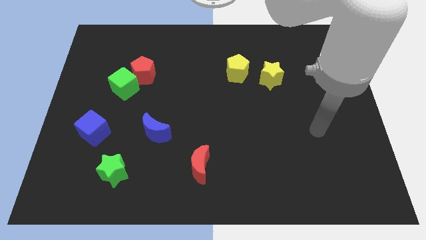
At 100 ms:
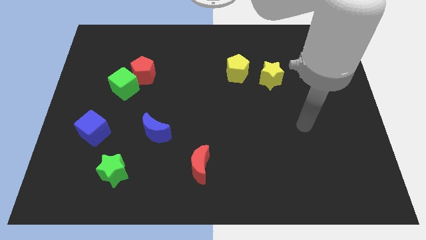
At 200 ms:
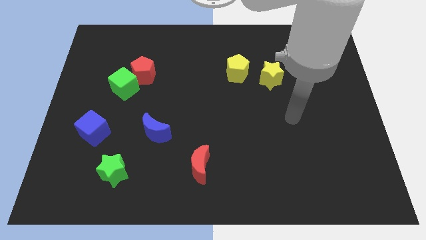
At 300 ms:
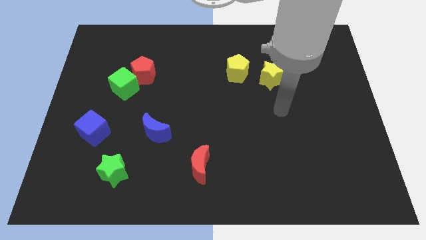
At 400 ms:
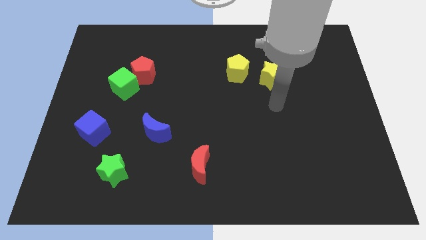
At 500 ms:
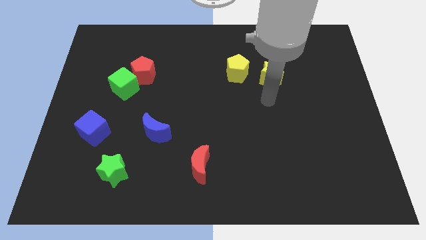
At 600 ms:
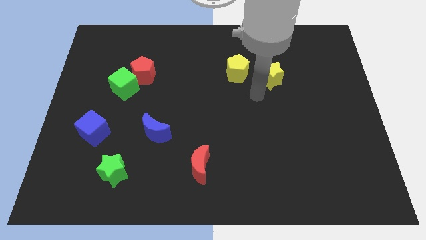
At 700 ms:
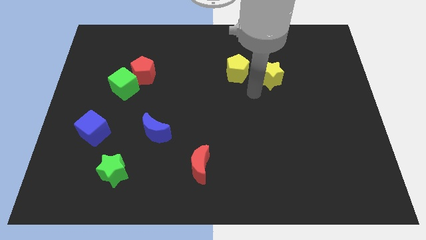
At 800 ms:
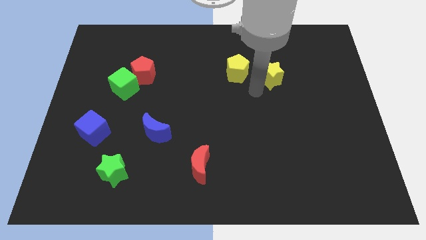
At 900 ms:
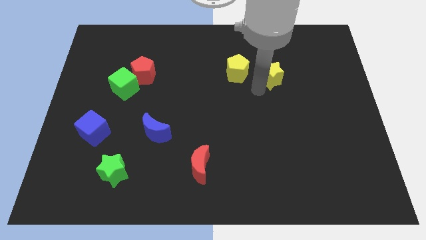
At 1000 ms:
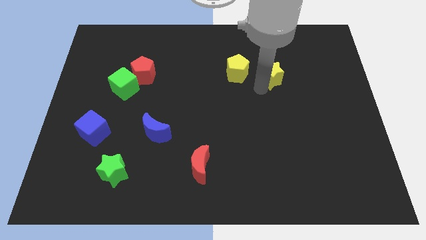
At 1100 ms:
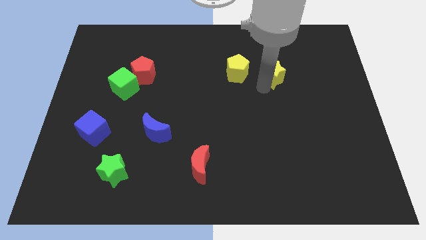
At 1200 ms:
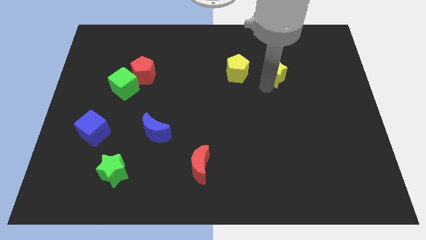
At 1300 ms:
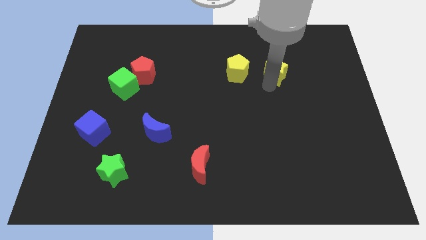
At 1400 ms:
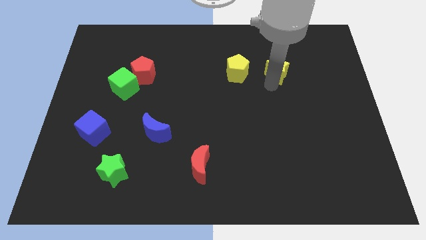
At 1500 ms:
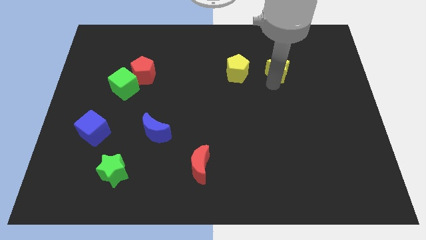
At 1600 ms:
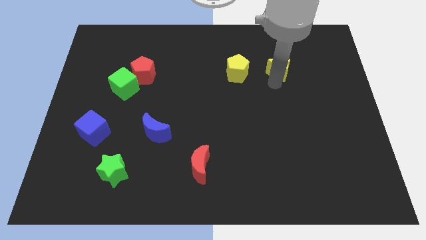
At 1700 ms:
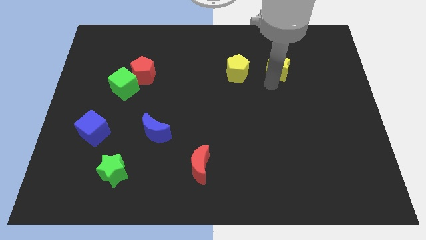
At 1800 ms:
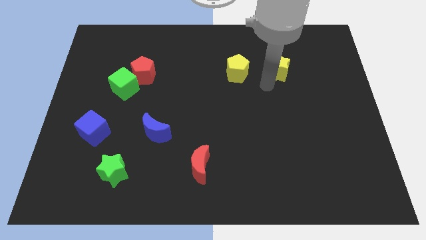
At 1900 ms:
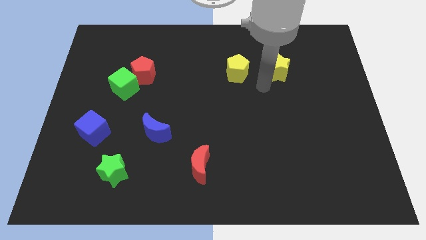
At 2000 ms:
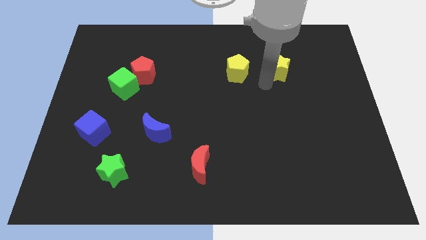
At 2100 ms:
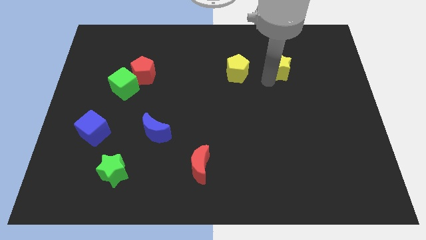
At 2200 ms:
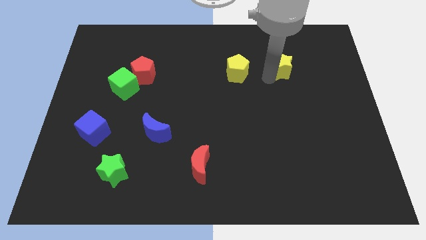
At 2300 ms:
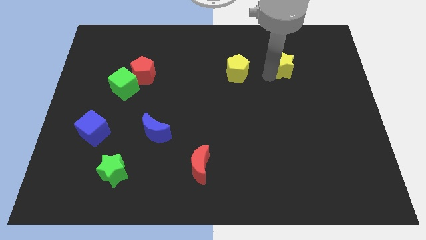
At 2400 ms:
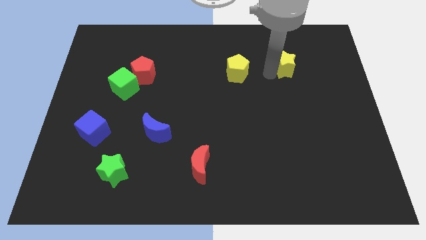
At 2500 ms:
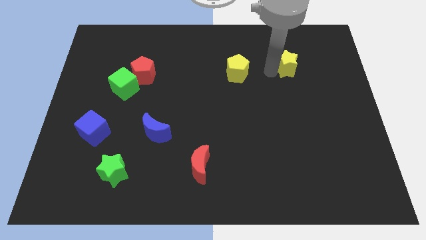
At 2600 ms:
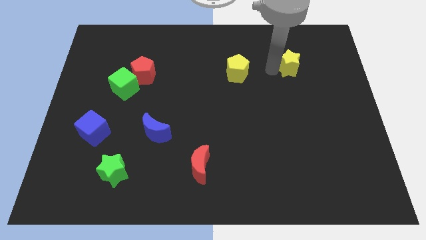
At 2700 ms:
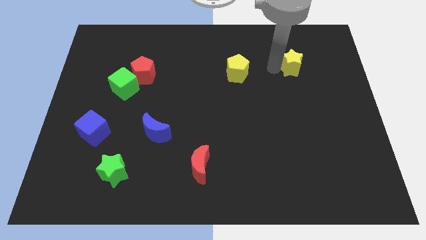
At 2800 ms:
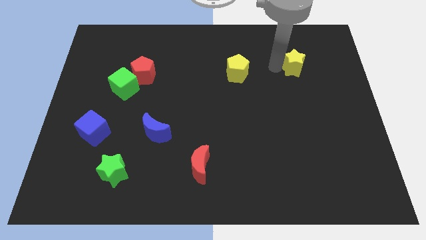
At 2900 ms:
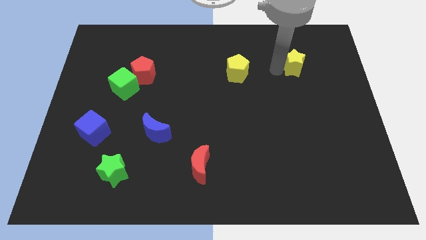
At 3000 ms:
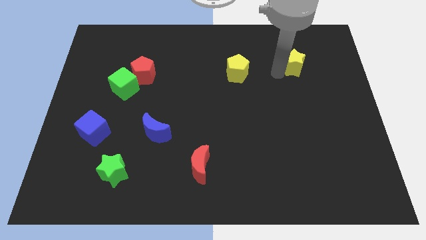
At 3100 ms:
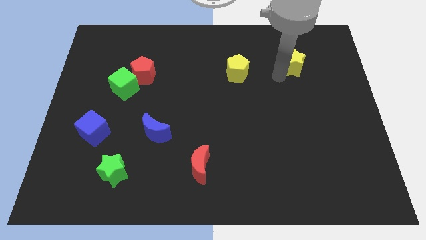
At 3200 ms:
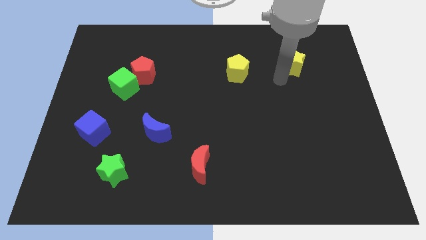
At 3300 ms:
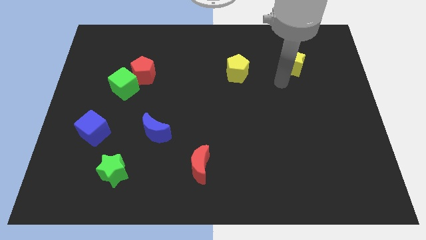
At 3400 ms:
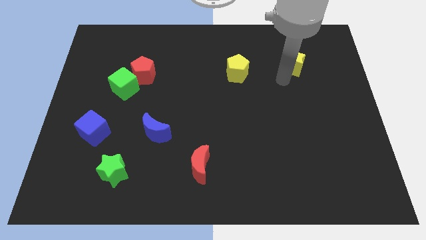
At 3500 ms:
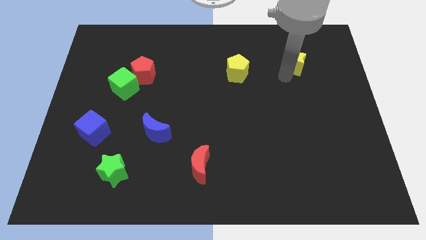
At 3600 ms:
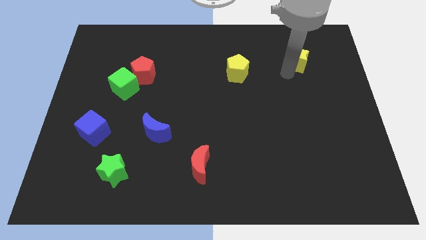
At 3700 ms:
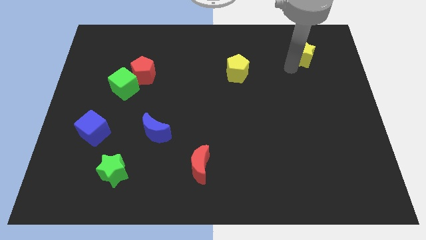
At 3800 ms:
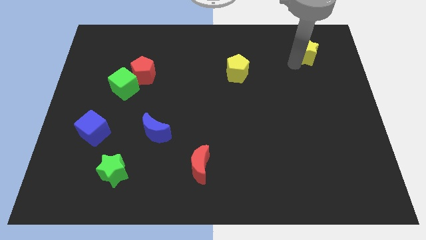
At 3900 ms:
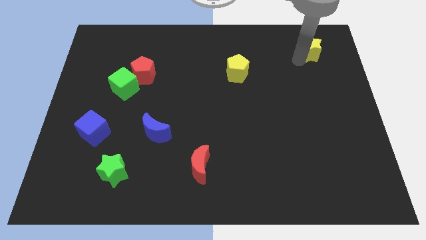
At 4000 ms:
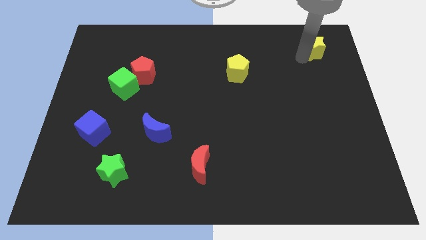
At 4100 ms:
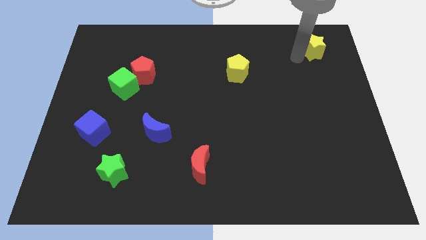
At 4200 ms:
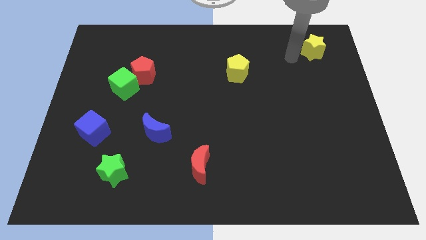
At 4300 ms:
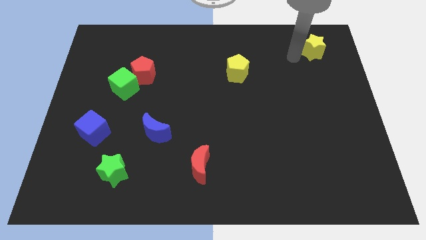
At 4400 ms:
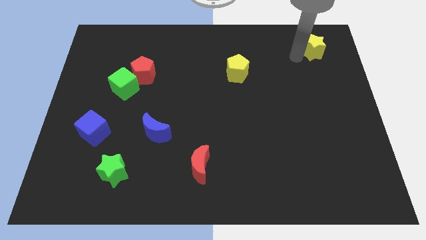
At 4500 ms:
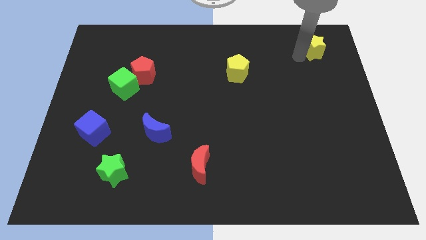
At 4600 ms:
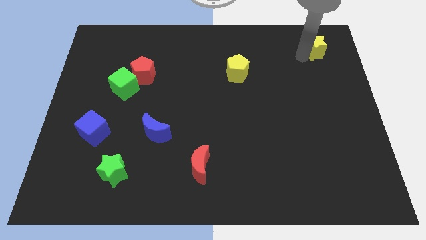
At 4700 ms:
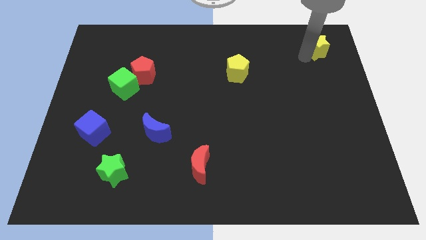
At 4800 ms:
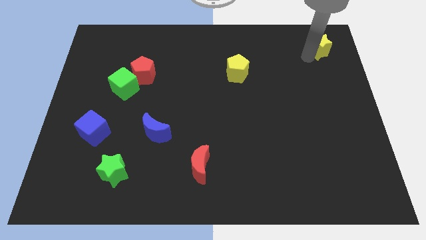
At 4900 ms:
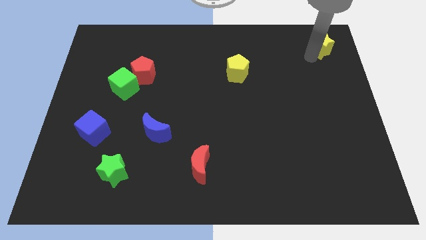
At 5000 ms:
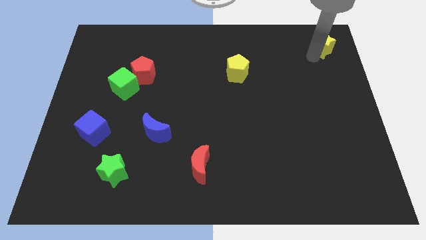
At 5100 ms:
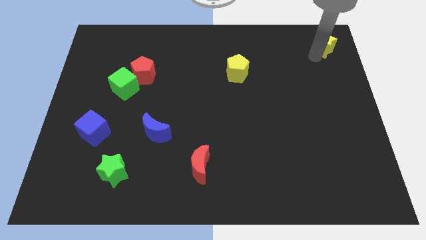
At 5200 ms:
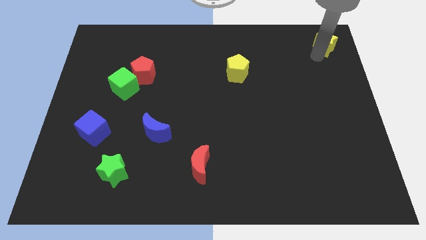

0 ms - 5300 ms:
move the yellow star to the top right corner

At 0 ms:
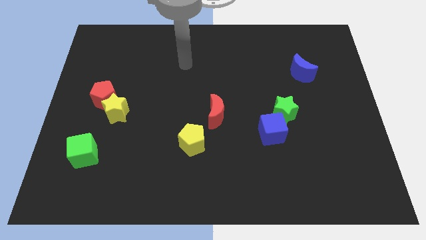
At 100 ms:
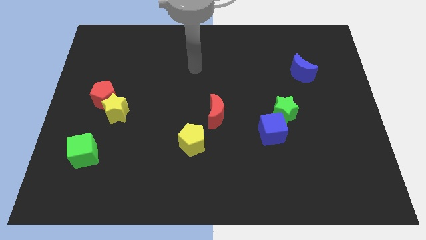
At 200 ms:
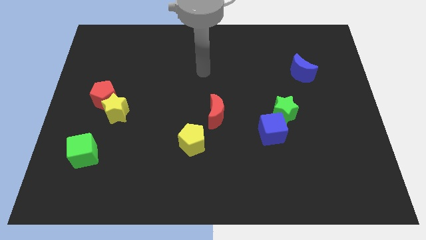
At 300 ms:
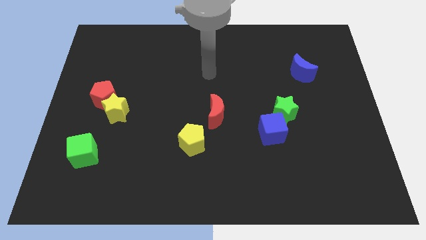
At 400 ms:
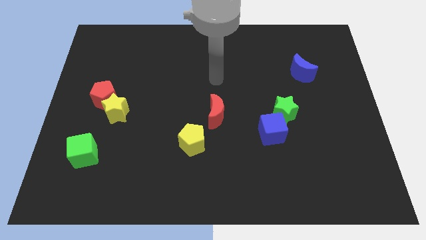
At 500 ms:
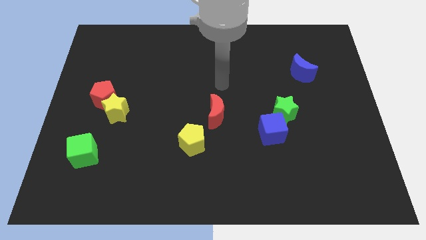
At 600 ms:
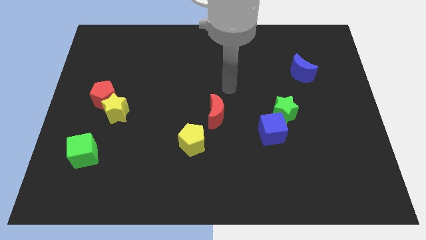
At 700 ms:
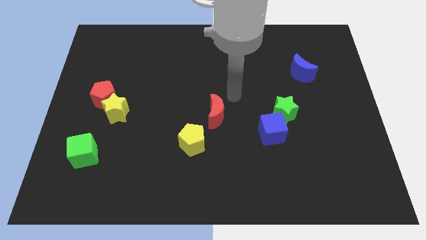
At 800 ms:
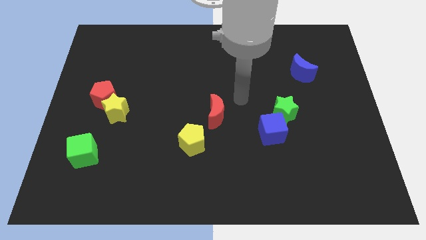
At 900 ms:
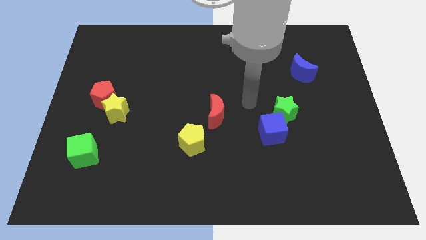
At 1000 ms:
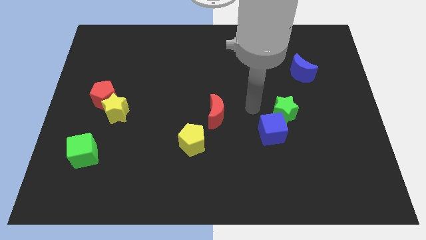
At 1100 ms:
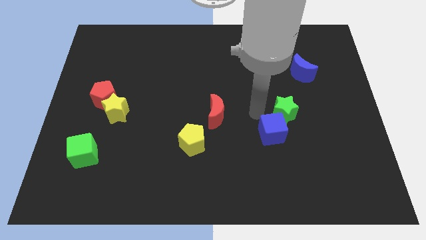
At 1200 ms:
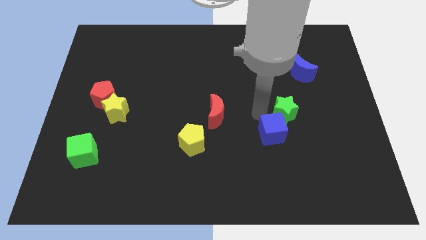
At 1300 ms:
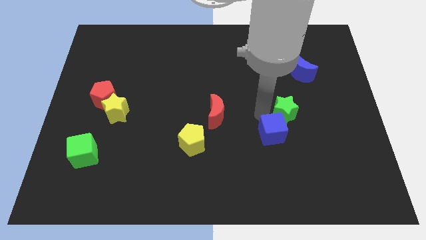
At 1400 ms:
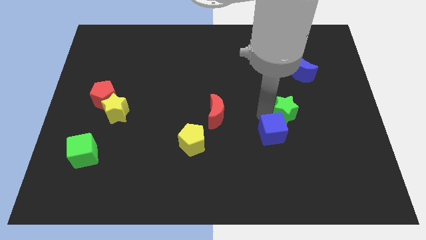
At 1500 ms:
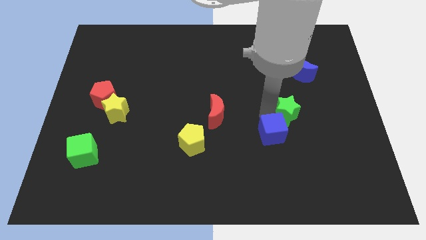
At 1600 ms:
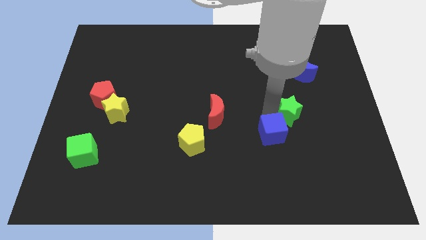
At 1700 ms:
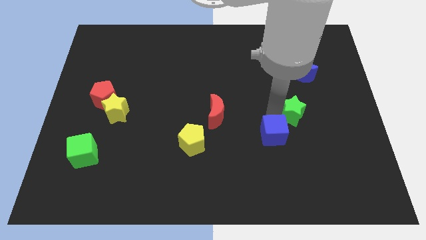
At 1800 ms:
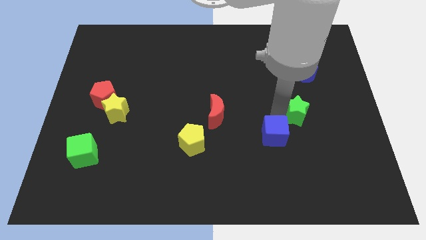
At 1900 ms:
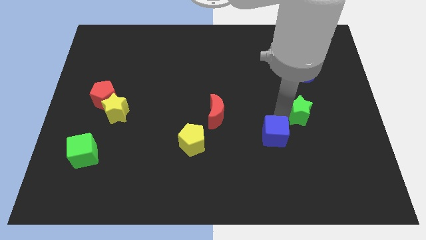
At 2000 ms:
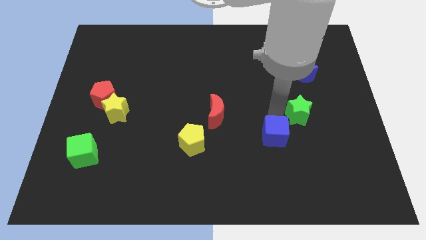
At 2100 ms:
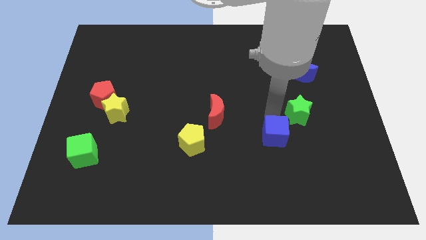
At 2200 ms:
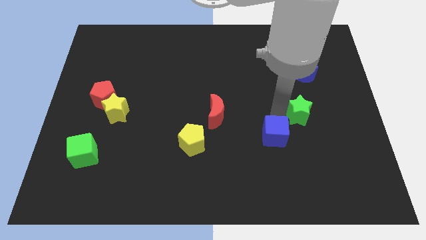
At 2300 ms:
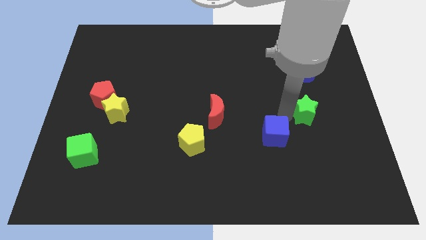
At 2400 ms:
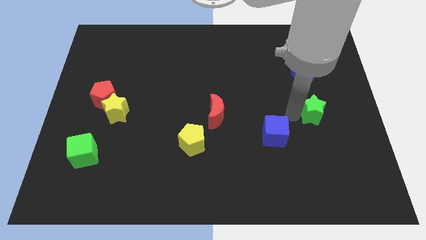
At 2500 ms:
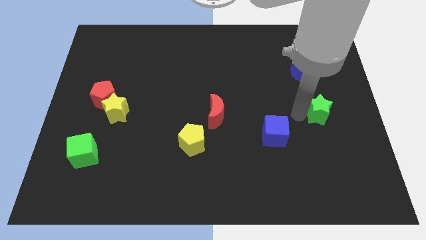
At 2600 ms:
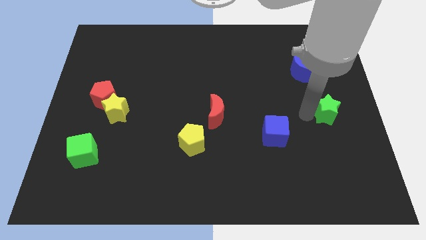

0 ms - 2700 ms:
put the green star to the center right
